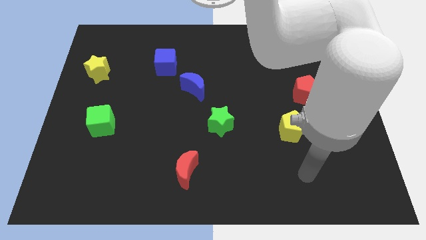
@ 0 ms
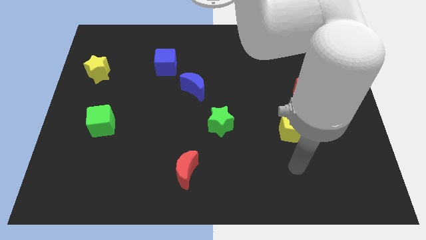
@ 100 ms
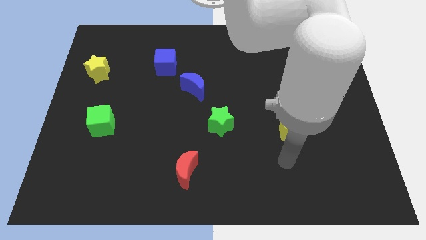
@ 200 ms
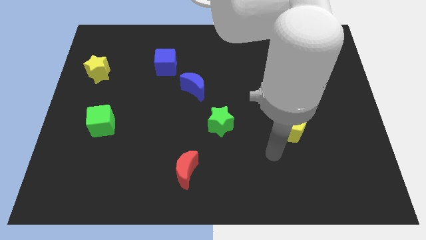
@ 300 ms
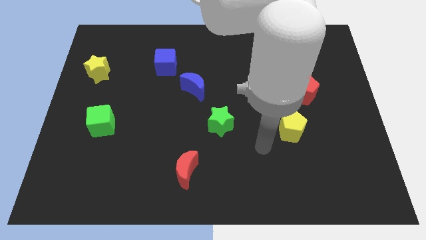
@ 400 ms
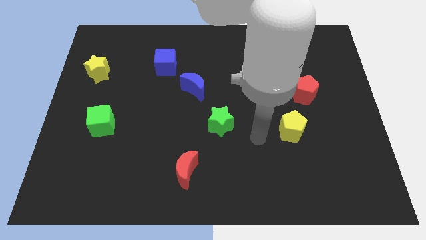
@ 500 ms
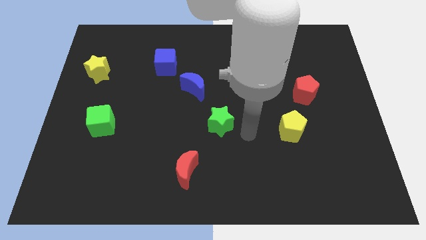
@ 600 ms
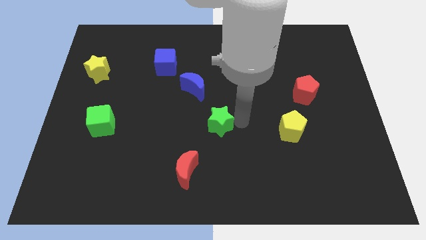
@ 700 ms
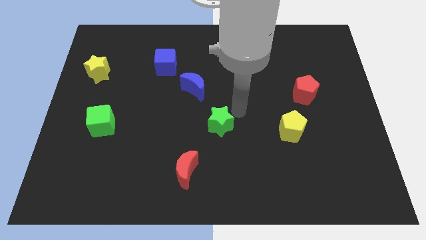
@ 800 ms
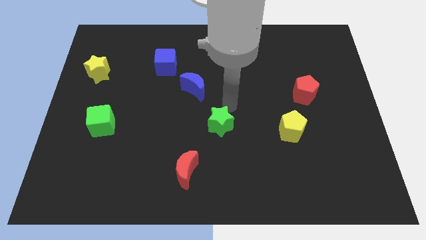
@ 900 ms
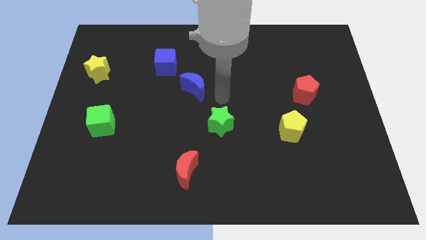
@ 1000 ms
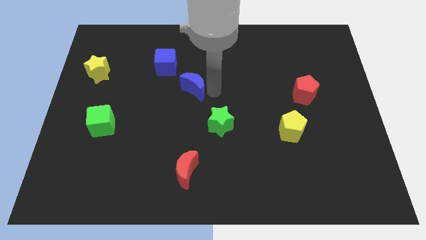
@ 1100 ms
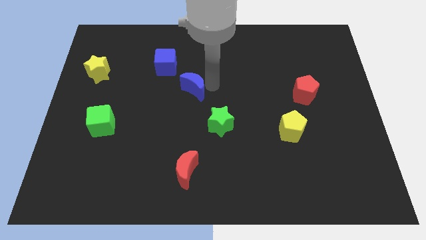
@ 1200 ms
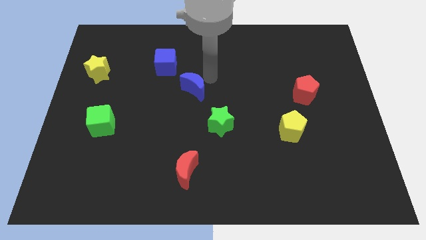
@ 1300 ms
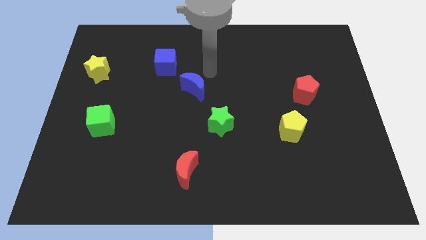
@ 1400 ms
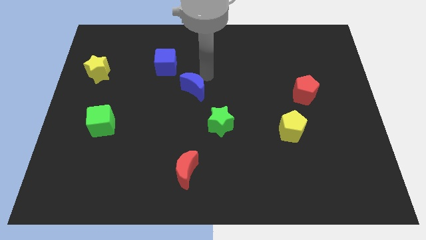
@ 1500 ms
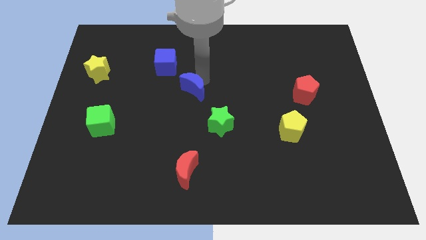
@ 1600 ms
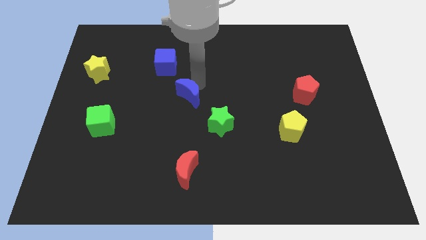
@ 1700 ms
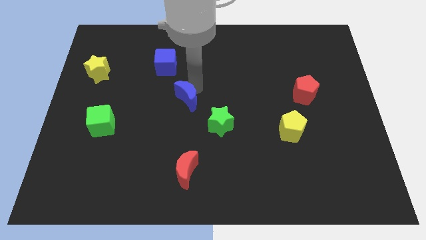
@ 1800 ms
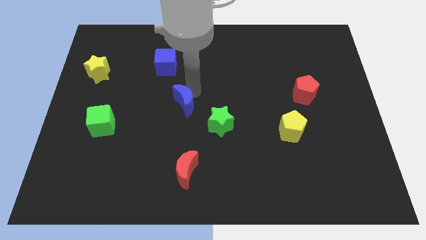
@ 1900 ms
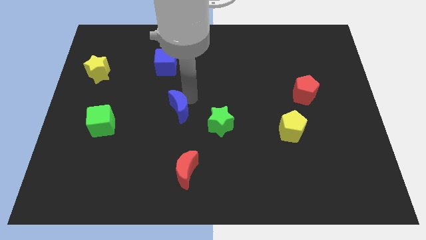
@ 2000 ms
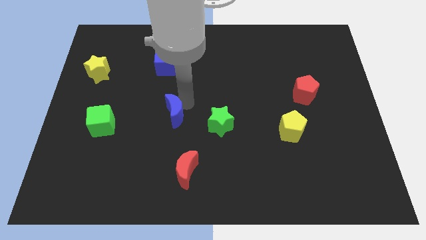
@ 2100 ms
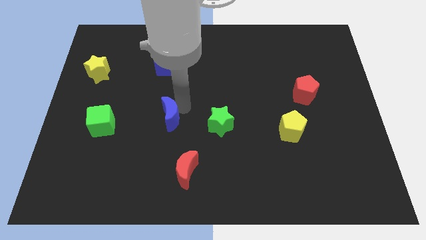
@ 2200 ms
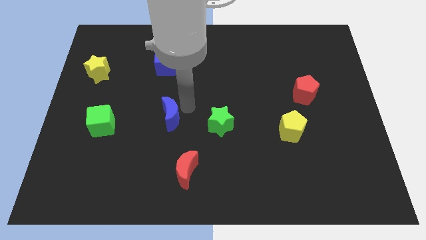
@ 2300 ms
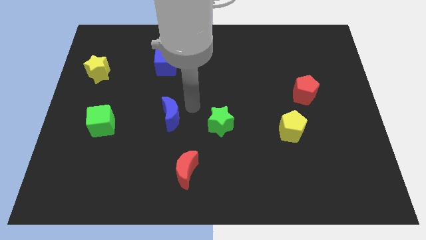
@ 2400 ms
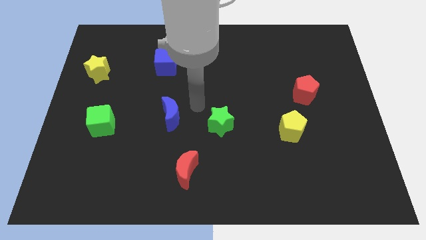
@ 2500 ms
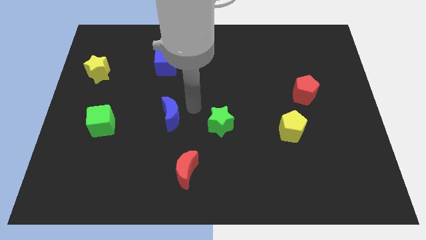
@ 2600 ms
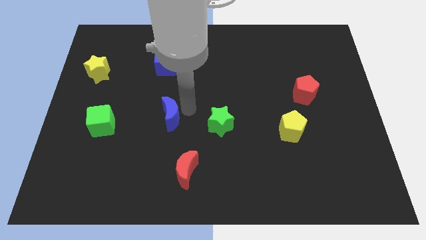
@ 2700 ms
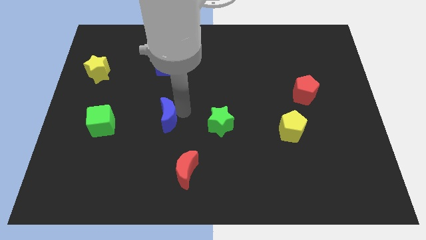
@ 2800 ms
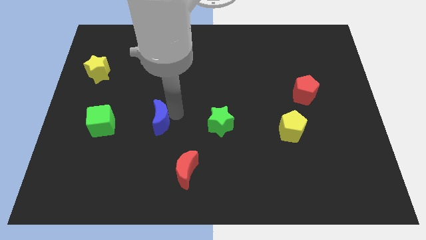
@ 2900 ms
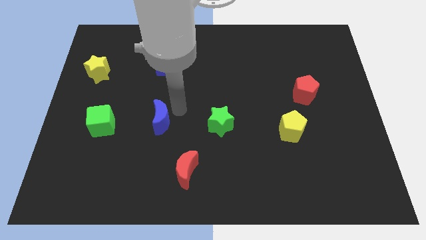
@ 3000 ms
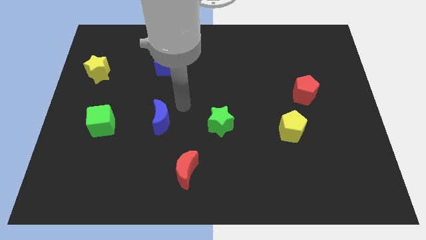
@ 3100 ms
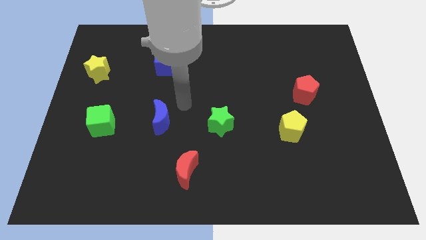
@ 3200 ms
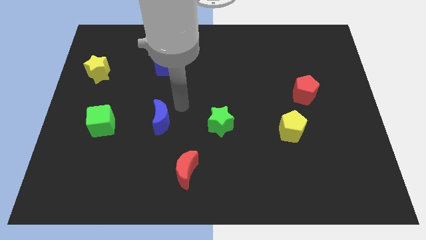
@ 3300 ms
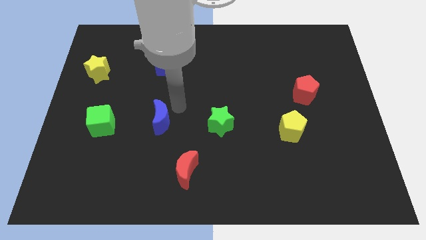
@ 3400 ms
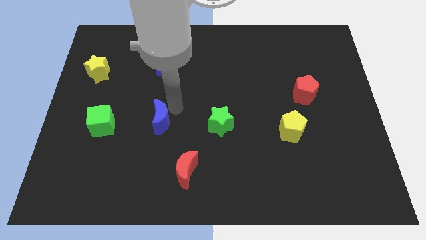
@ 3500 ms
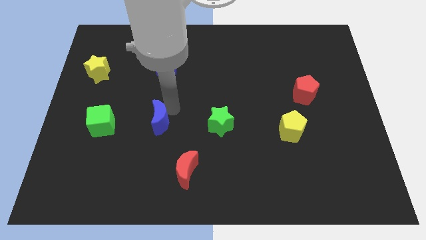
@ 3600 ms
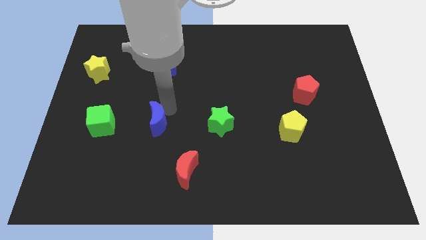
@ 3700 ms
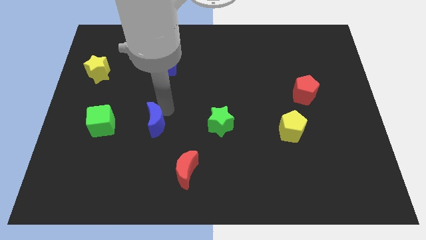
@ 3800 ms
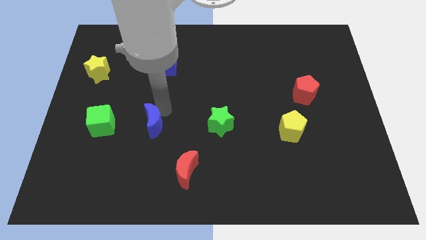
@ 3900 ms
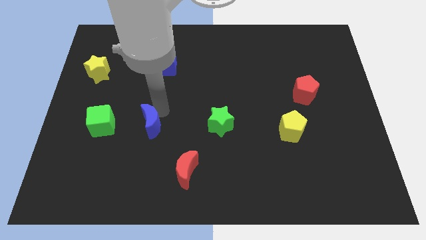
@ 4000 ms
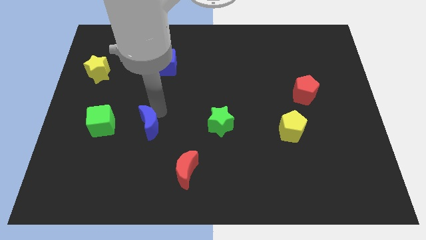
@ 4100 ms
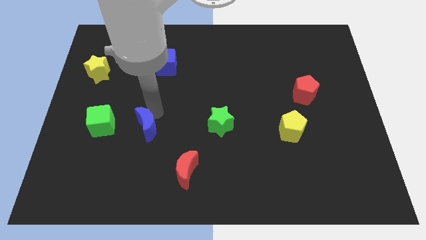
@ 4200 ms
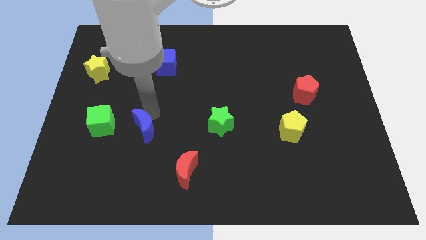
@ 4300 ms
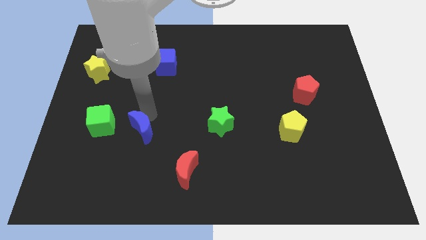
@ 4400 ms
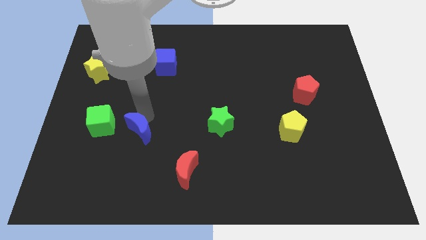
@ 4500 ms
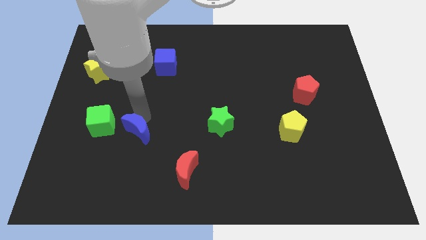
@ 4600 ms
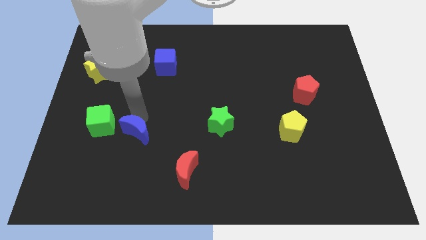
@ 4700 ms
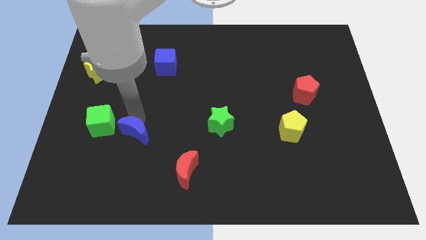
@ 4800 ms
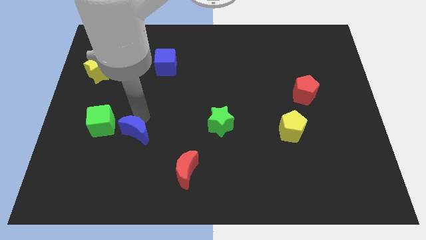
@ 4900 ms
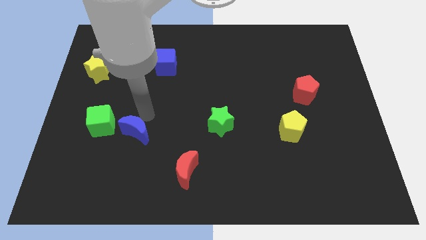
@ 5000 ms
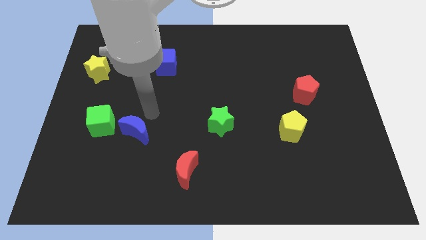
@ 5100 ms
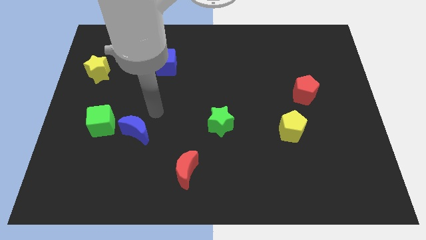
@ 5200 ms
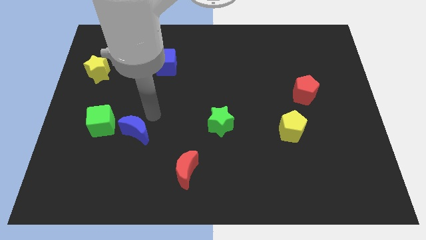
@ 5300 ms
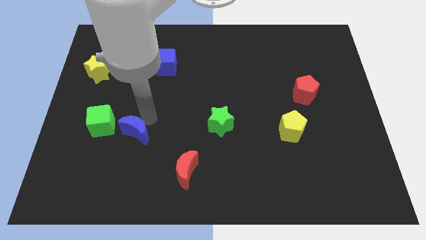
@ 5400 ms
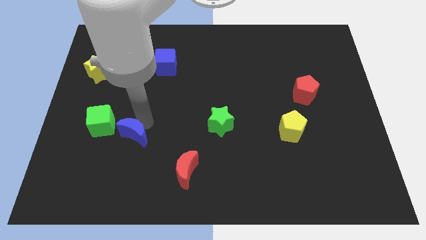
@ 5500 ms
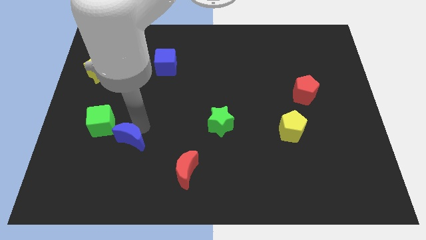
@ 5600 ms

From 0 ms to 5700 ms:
slide the blue moon downwards and then to the left

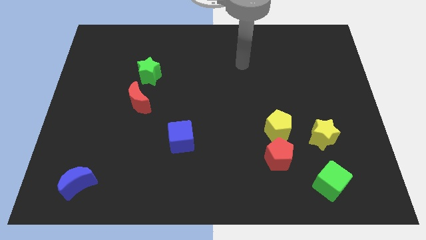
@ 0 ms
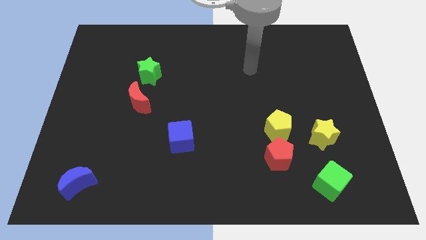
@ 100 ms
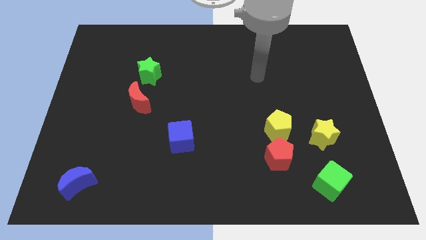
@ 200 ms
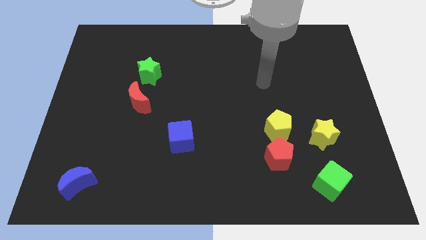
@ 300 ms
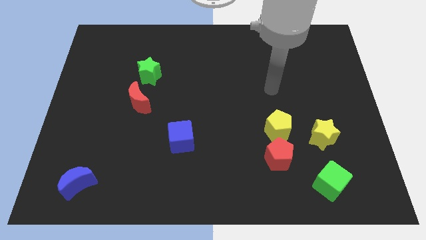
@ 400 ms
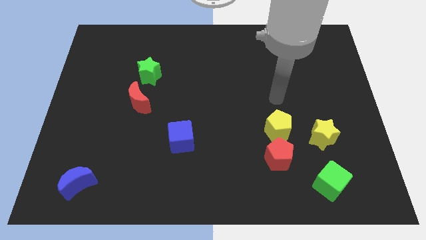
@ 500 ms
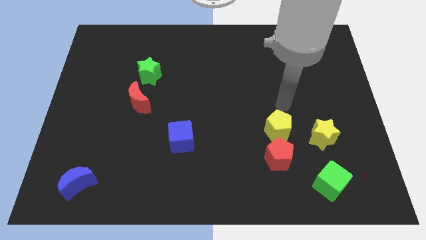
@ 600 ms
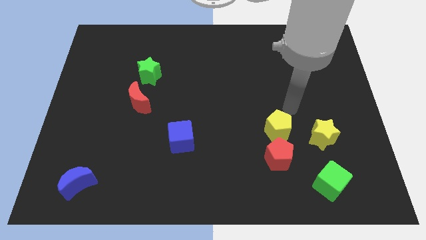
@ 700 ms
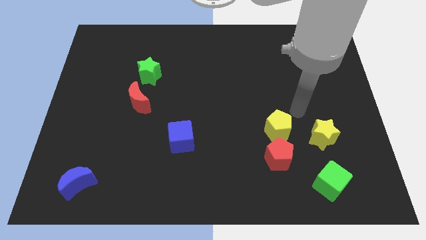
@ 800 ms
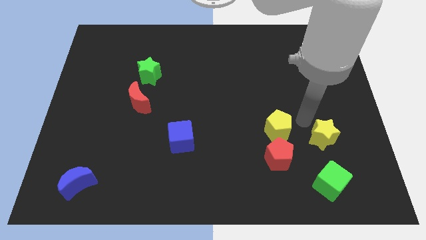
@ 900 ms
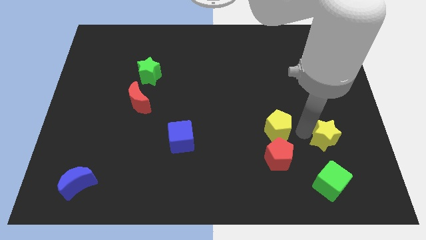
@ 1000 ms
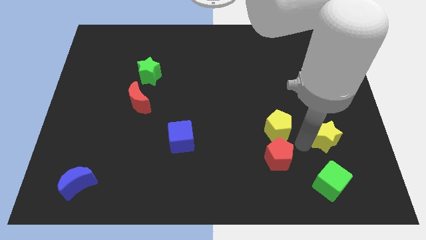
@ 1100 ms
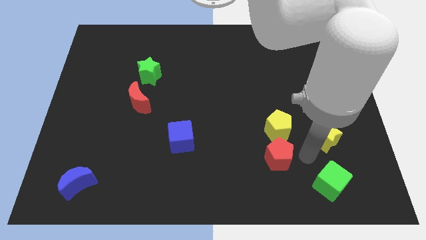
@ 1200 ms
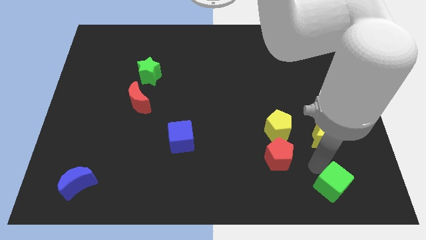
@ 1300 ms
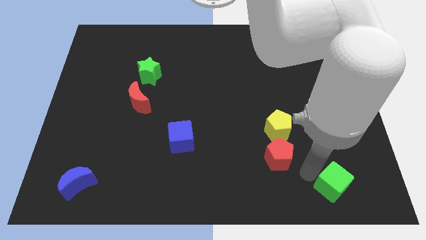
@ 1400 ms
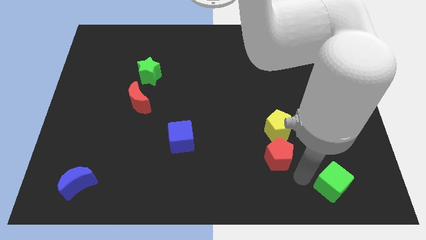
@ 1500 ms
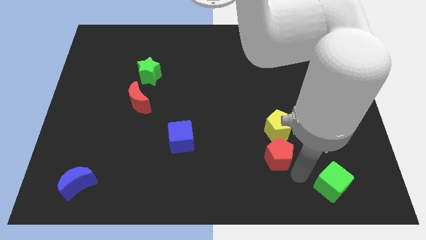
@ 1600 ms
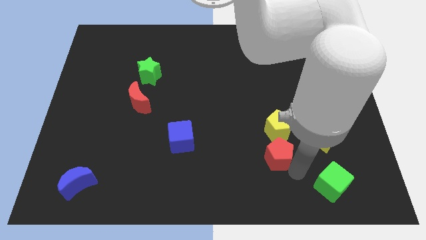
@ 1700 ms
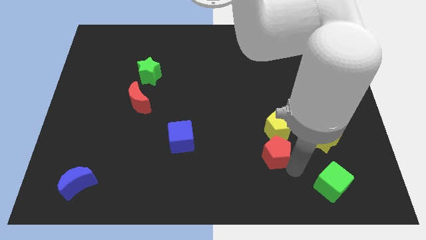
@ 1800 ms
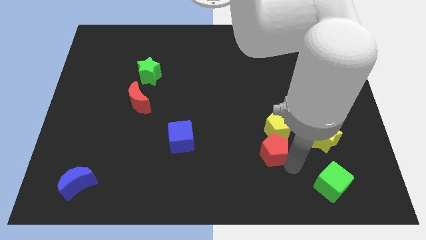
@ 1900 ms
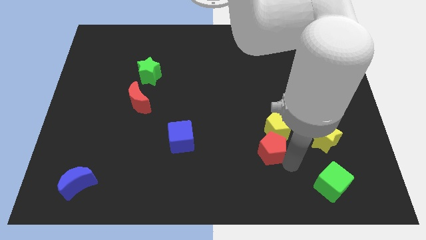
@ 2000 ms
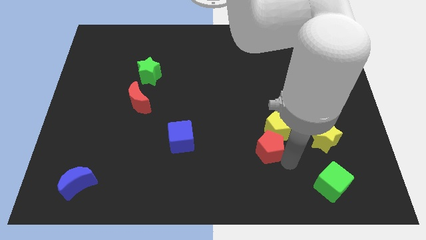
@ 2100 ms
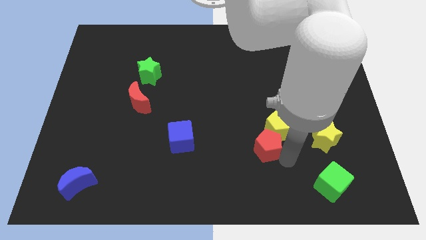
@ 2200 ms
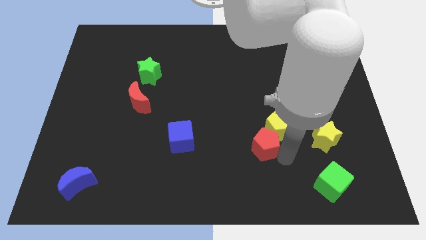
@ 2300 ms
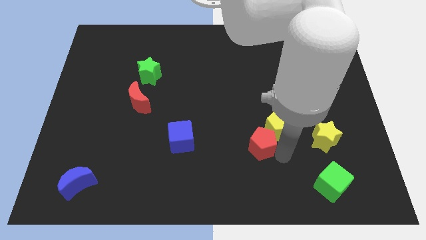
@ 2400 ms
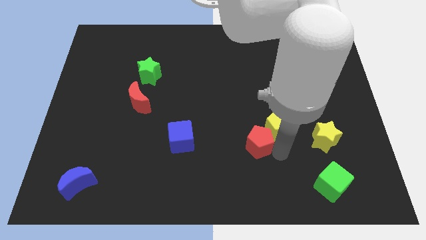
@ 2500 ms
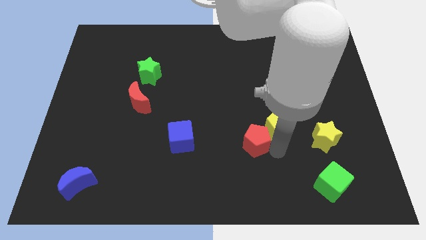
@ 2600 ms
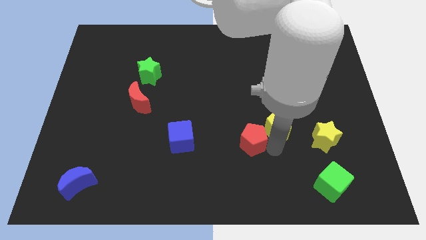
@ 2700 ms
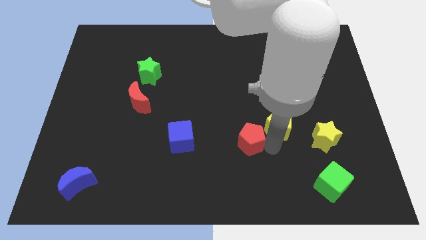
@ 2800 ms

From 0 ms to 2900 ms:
slightly push the red pentagon upwards and left
